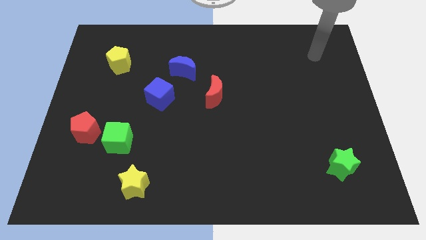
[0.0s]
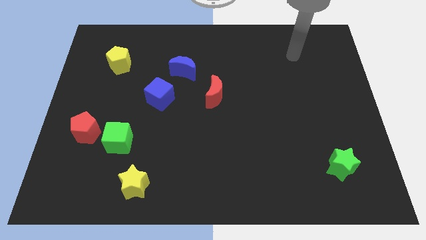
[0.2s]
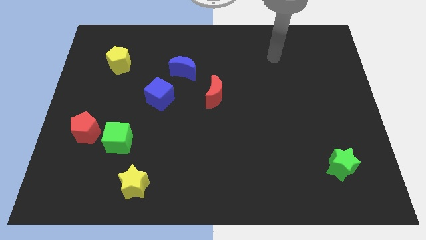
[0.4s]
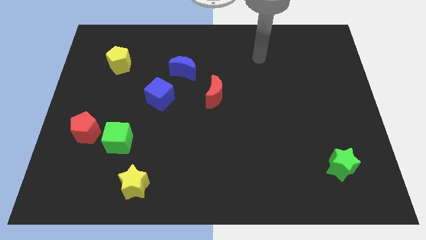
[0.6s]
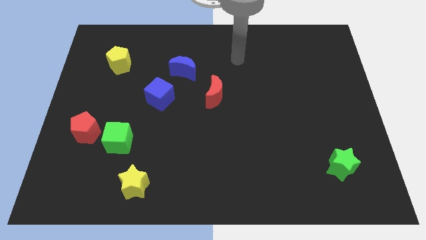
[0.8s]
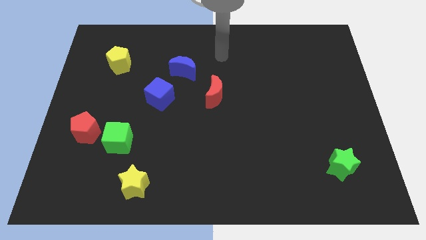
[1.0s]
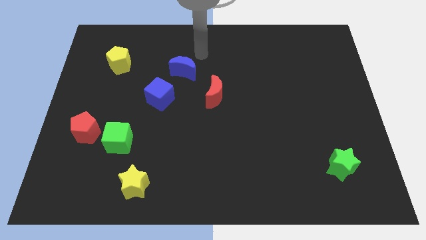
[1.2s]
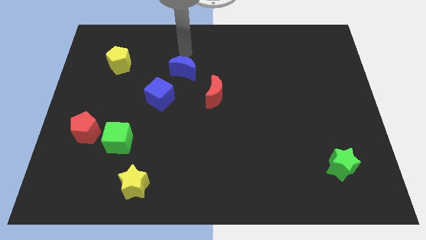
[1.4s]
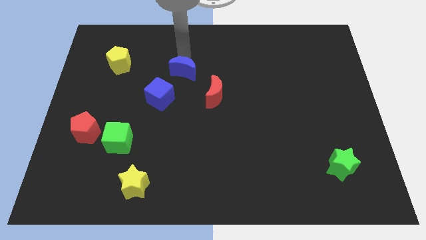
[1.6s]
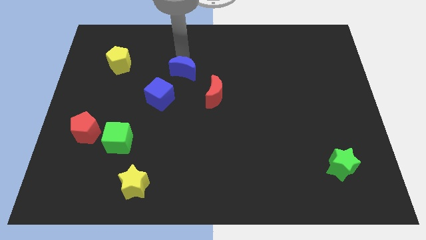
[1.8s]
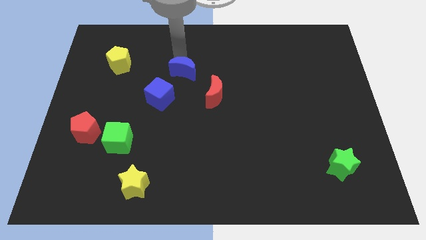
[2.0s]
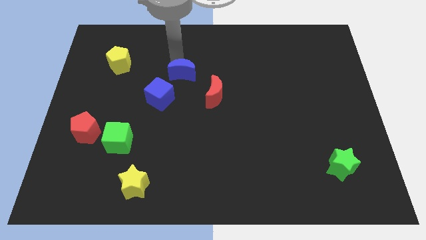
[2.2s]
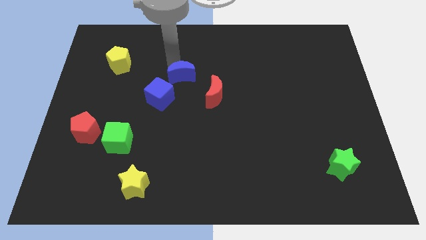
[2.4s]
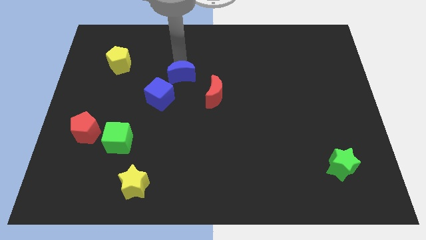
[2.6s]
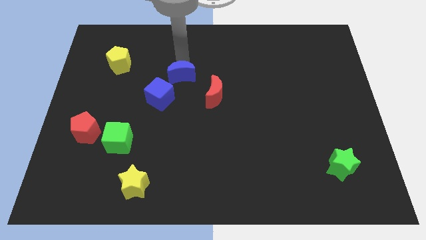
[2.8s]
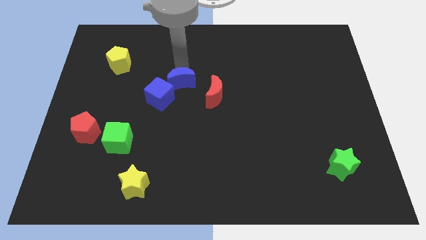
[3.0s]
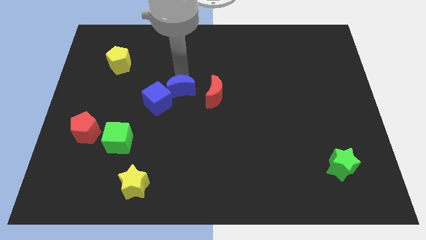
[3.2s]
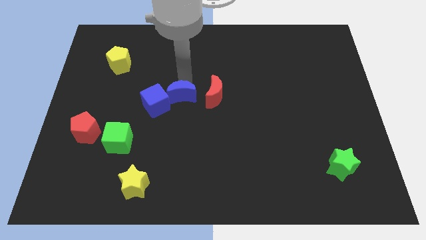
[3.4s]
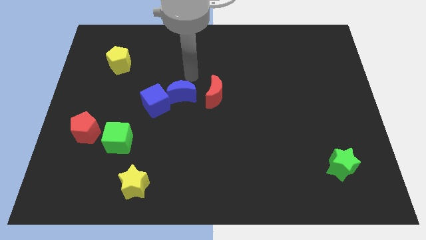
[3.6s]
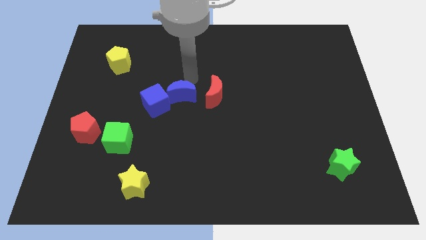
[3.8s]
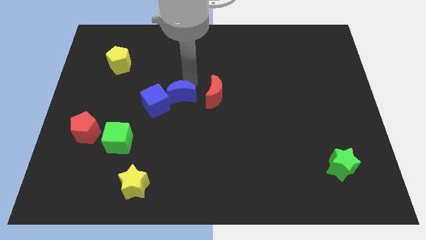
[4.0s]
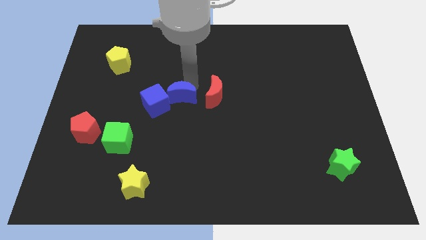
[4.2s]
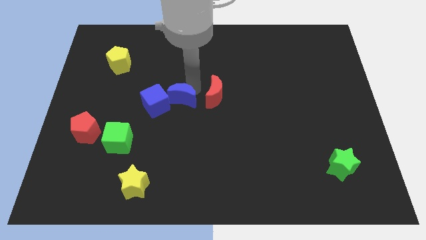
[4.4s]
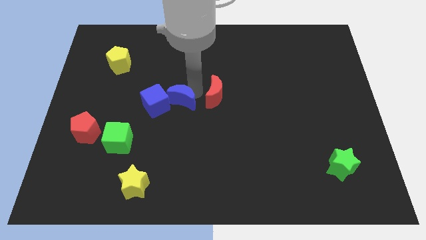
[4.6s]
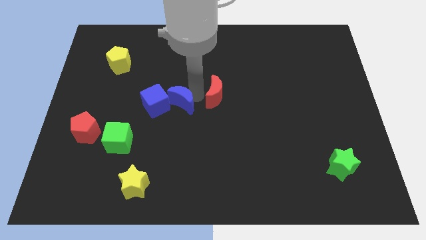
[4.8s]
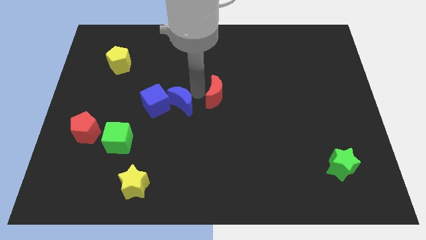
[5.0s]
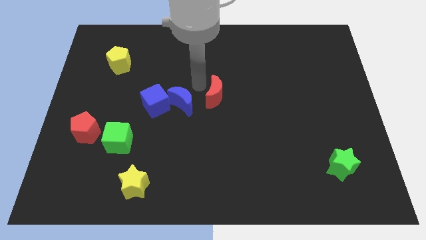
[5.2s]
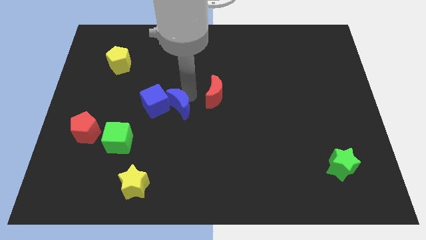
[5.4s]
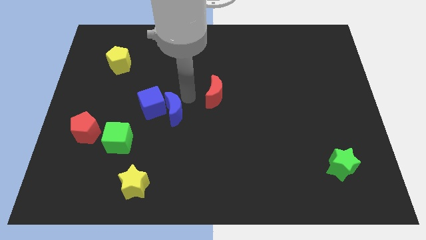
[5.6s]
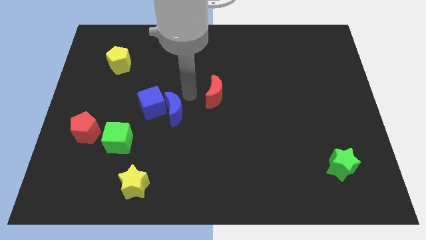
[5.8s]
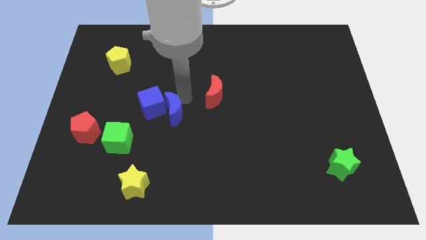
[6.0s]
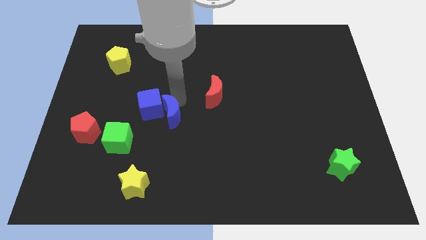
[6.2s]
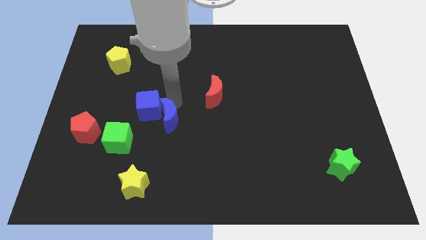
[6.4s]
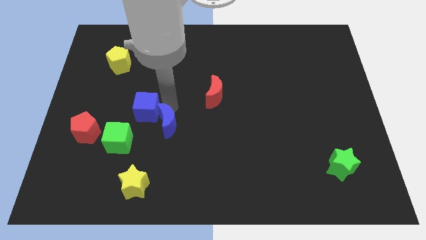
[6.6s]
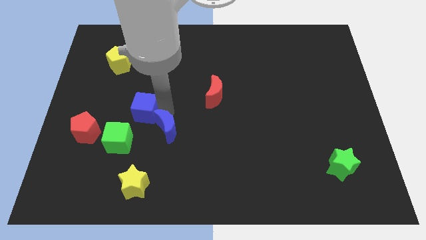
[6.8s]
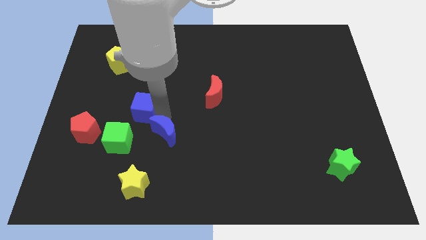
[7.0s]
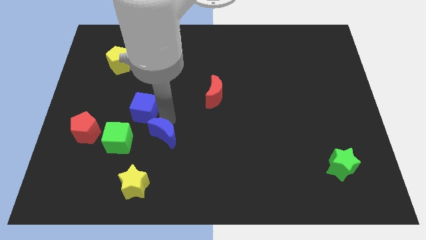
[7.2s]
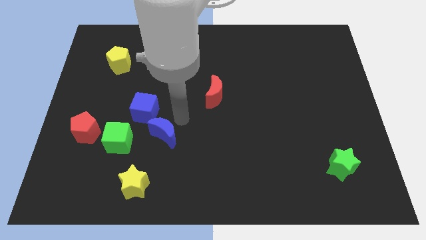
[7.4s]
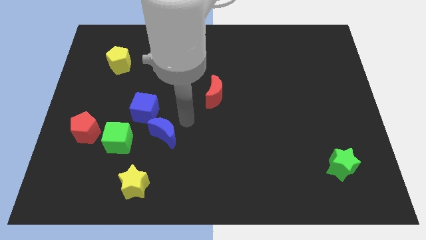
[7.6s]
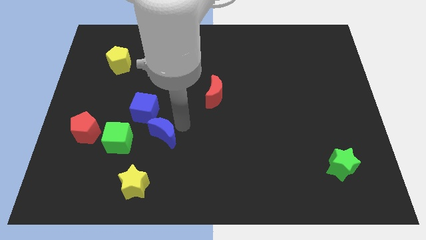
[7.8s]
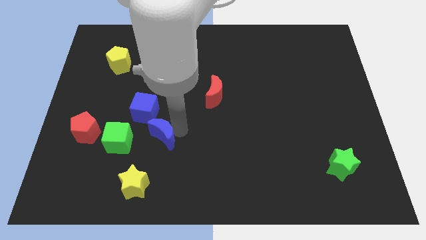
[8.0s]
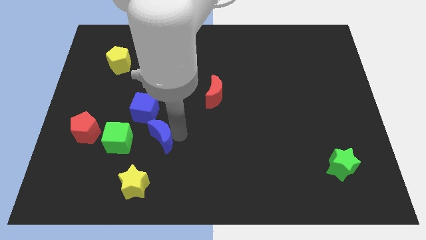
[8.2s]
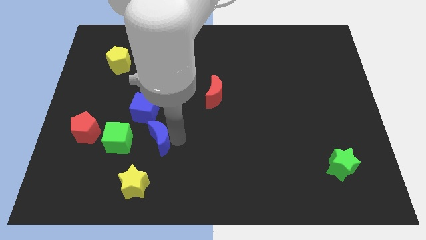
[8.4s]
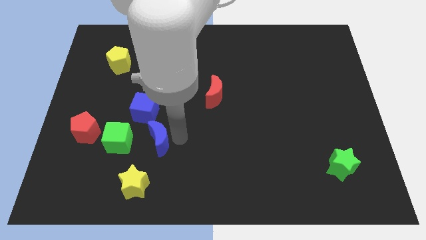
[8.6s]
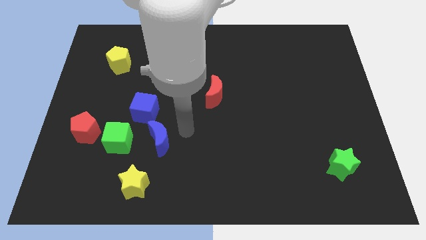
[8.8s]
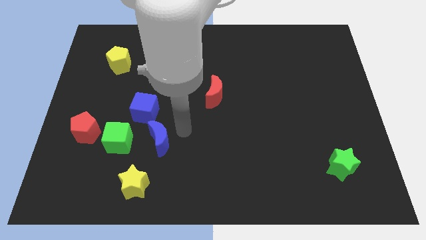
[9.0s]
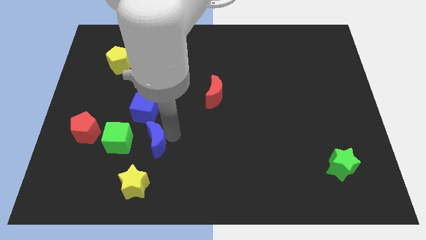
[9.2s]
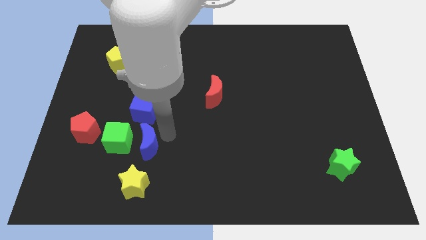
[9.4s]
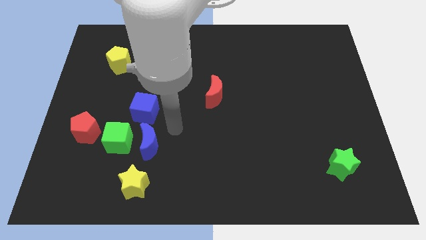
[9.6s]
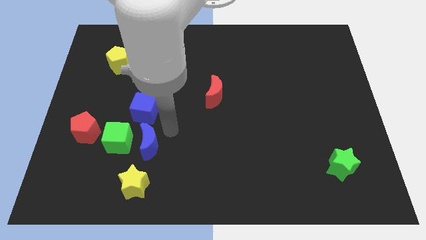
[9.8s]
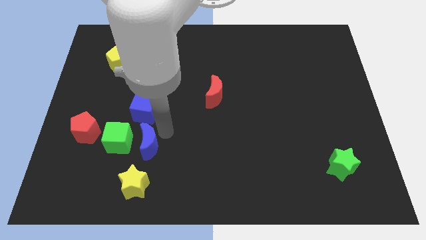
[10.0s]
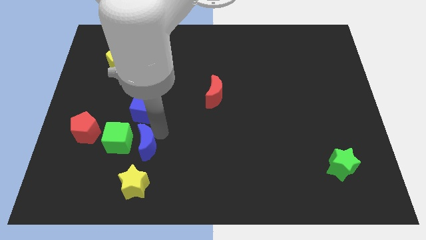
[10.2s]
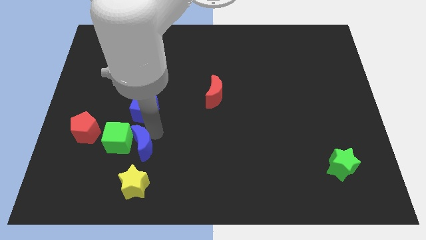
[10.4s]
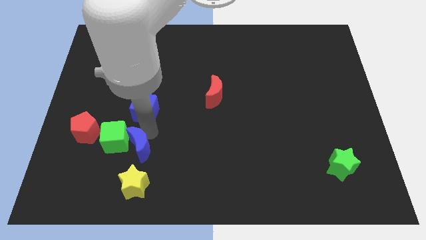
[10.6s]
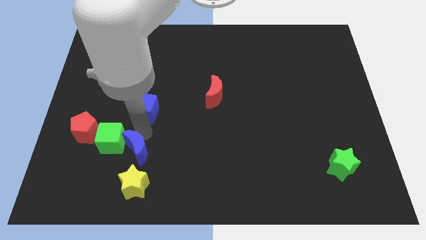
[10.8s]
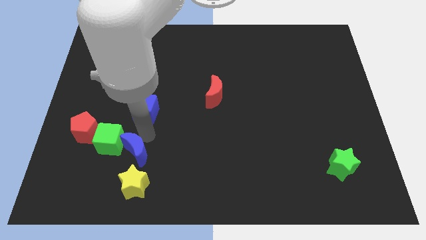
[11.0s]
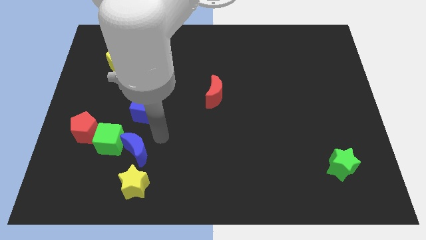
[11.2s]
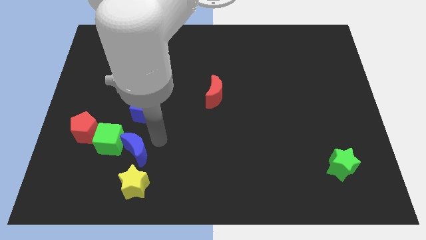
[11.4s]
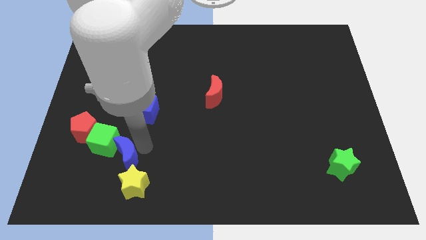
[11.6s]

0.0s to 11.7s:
slide the blue moon to the top left side of the yellow star
